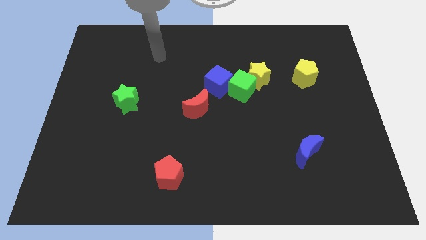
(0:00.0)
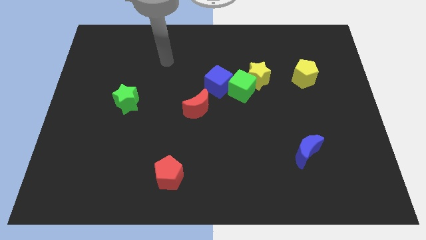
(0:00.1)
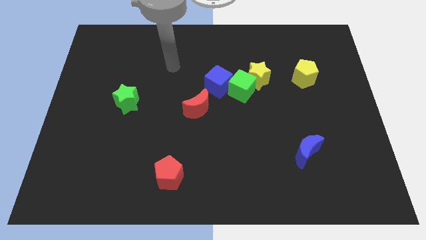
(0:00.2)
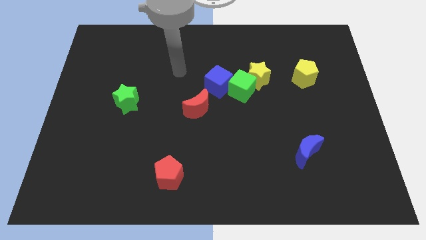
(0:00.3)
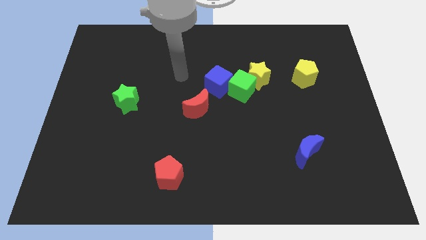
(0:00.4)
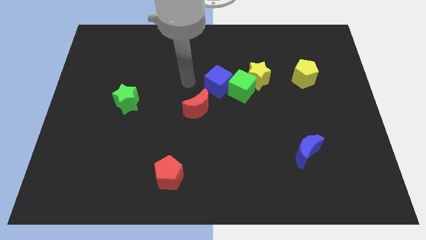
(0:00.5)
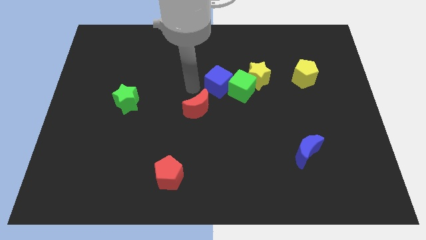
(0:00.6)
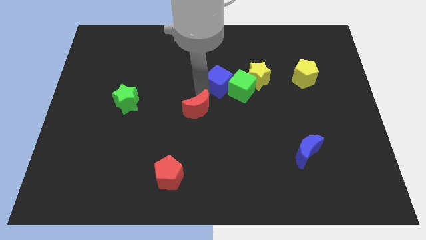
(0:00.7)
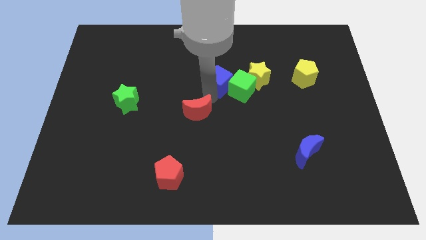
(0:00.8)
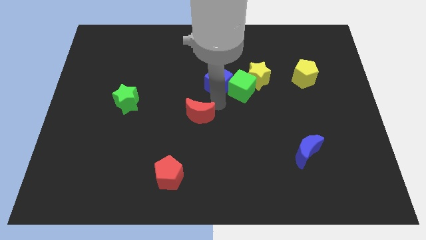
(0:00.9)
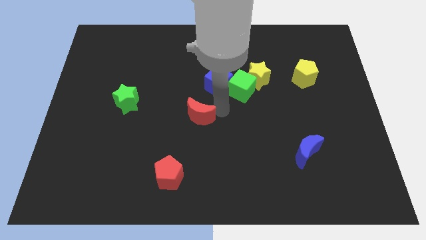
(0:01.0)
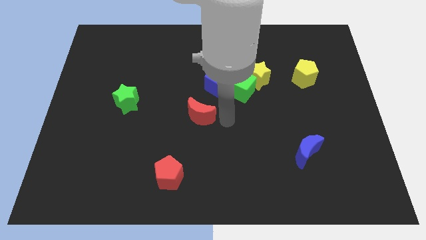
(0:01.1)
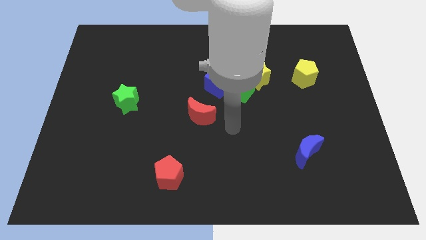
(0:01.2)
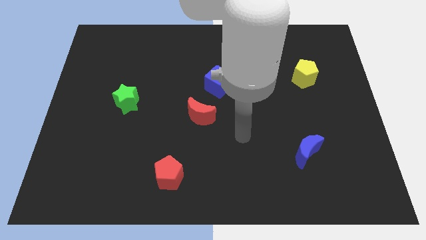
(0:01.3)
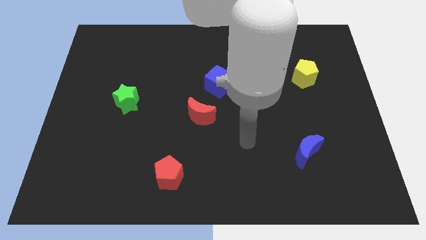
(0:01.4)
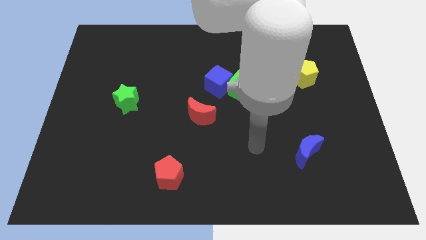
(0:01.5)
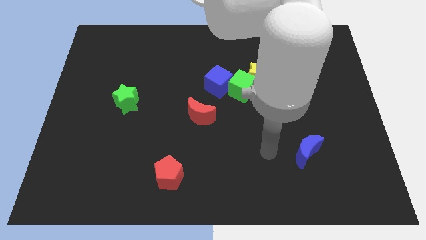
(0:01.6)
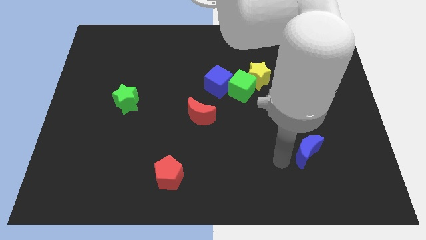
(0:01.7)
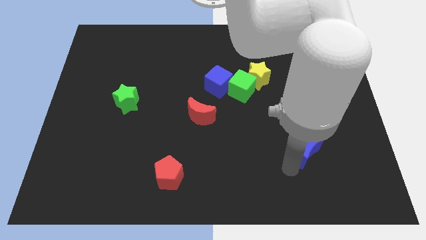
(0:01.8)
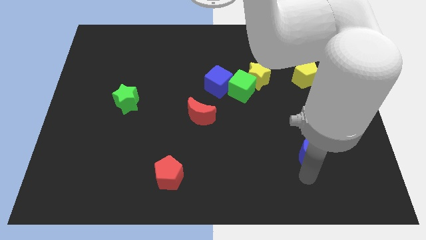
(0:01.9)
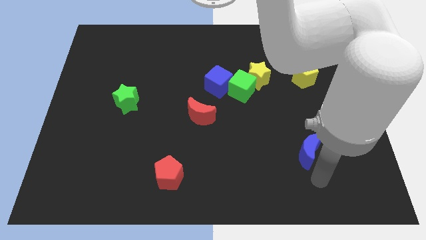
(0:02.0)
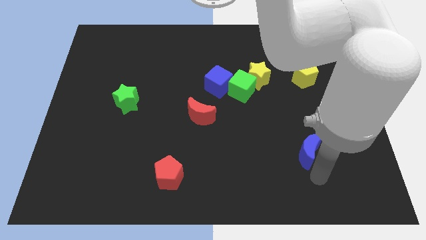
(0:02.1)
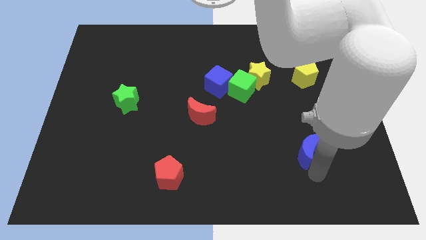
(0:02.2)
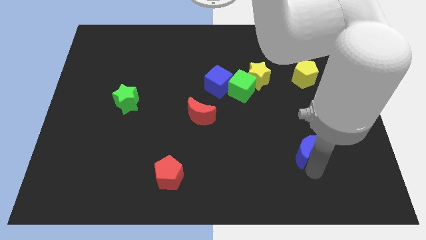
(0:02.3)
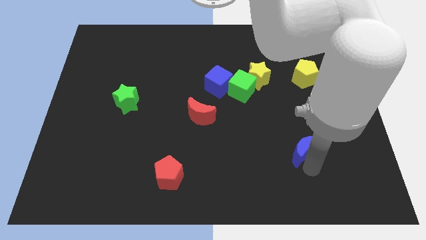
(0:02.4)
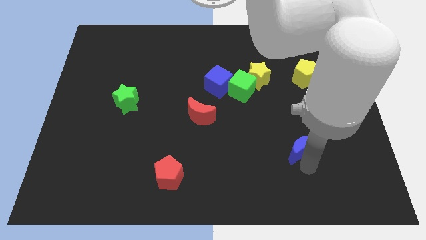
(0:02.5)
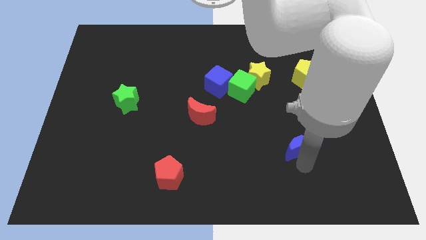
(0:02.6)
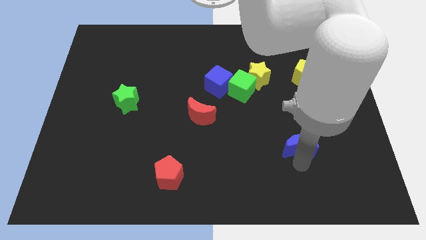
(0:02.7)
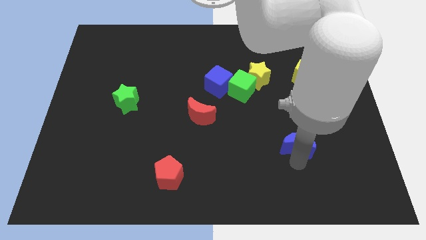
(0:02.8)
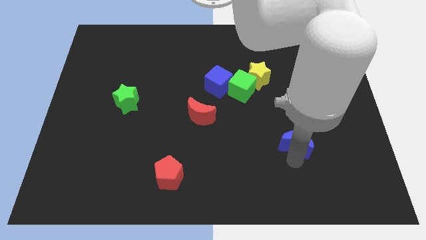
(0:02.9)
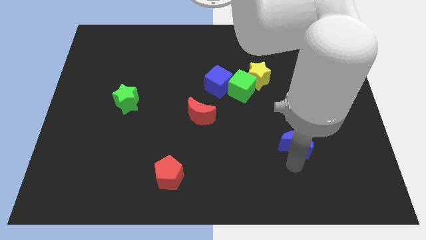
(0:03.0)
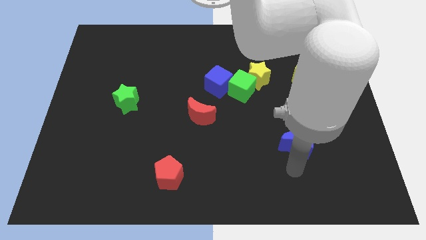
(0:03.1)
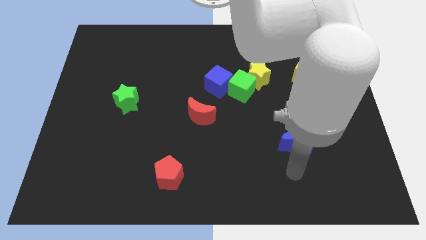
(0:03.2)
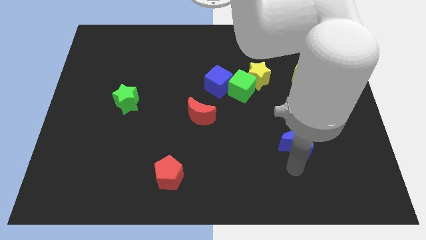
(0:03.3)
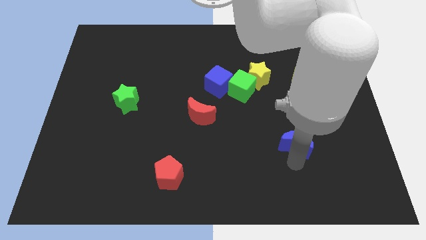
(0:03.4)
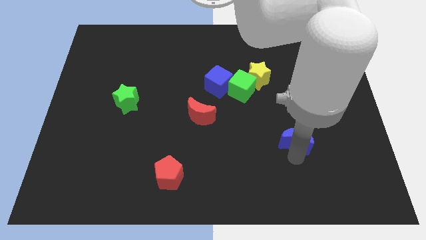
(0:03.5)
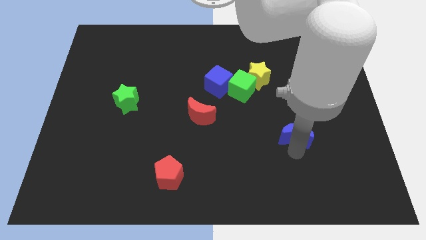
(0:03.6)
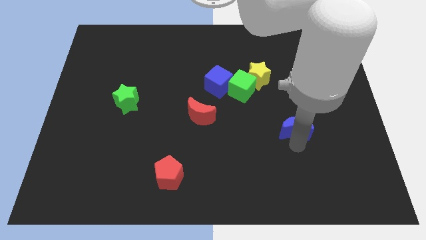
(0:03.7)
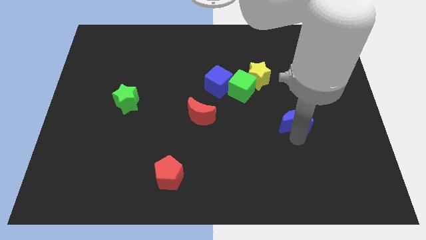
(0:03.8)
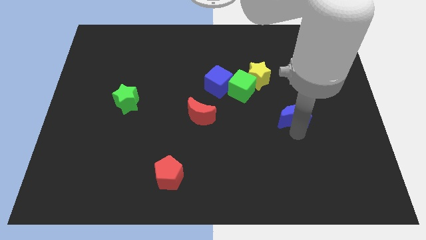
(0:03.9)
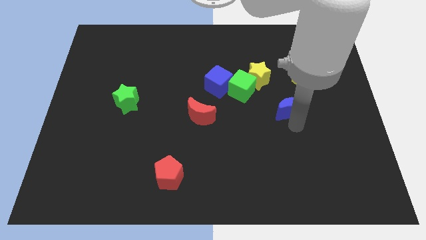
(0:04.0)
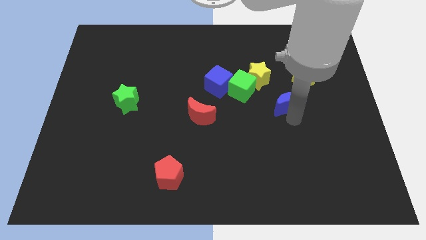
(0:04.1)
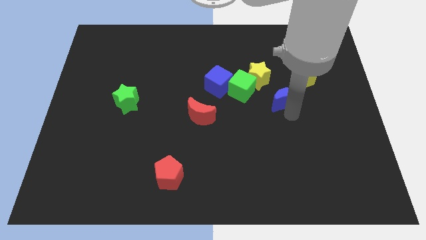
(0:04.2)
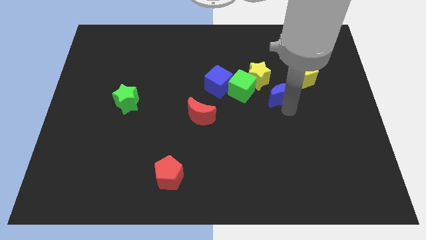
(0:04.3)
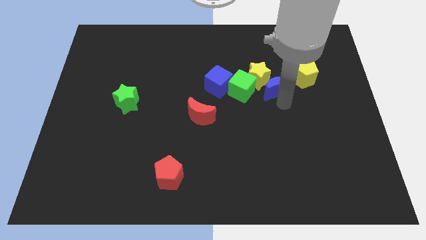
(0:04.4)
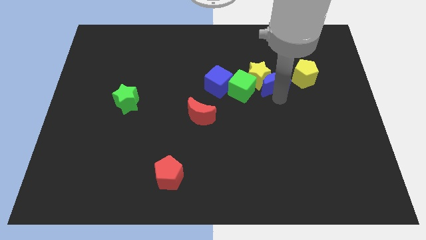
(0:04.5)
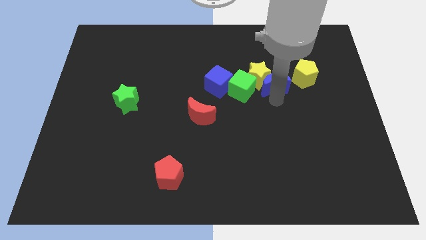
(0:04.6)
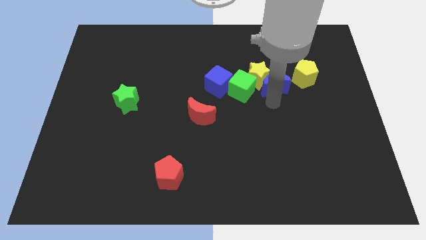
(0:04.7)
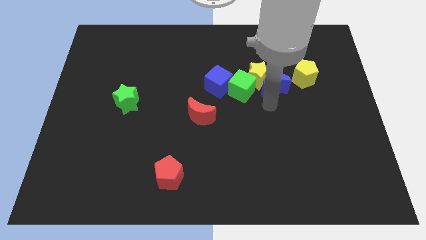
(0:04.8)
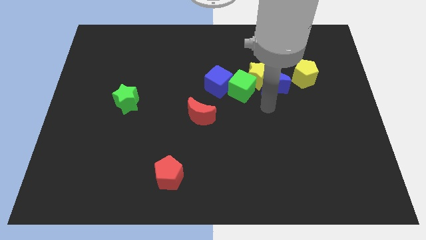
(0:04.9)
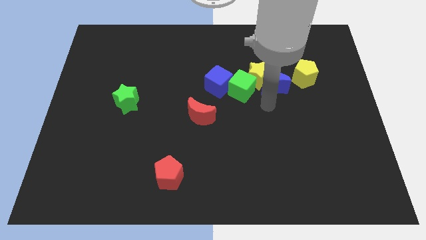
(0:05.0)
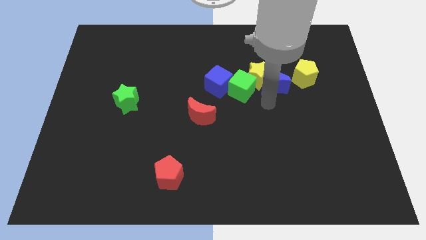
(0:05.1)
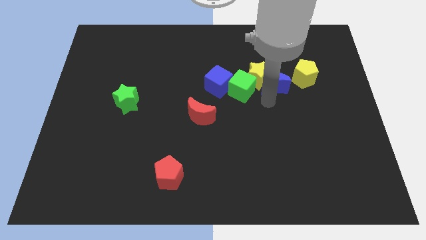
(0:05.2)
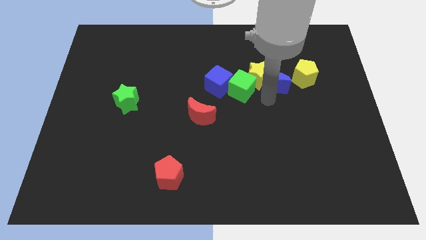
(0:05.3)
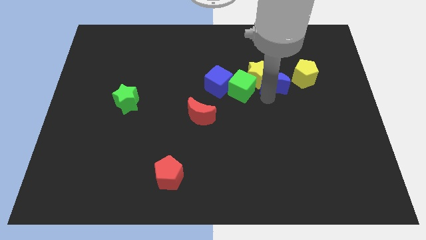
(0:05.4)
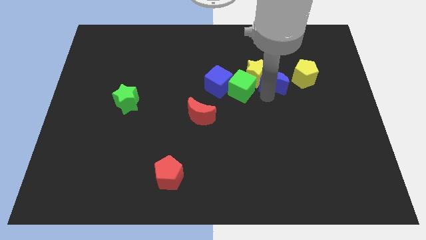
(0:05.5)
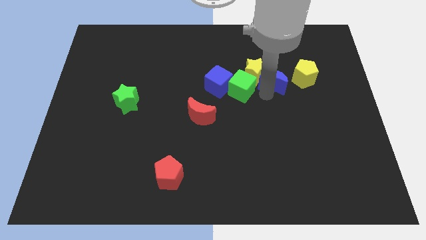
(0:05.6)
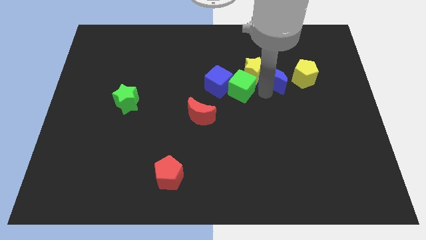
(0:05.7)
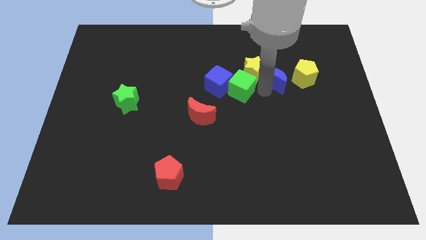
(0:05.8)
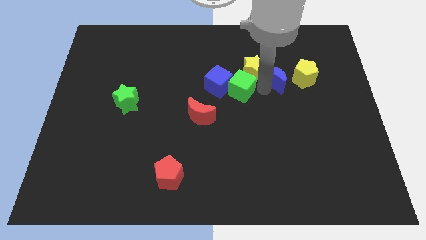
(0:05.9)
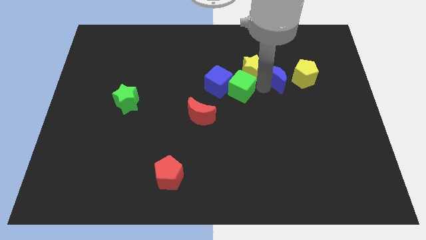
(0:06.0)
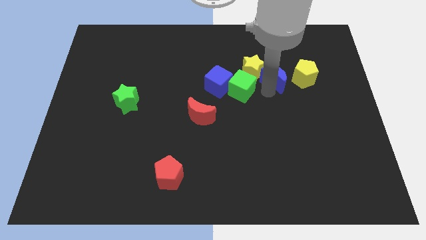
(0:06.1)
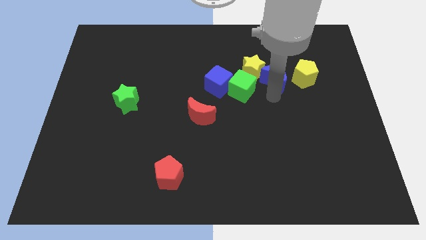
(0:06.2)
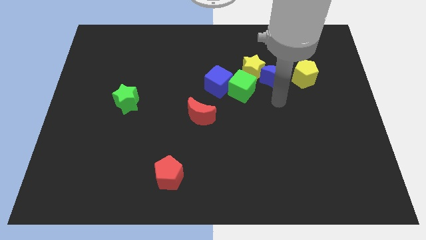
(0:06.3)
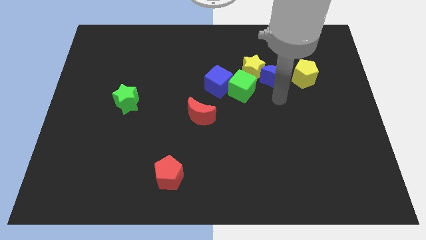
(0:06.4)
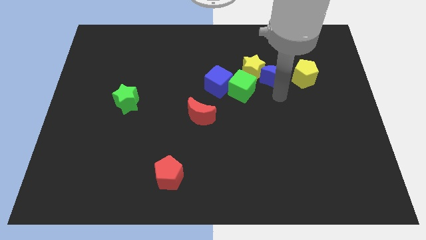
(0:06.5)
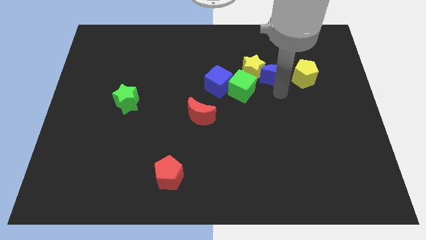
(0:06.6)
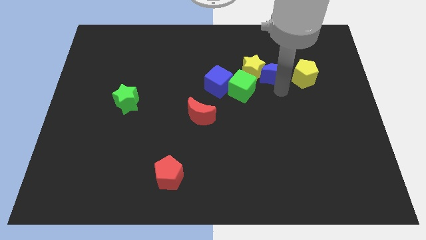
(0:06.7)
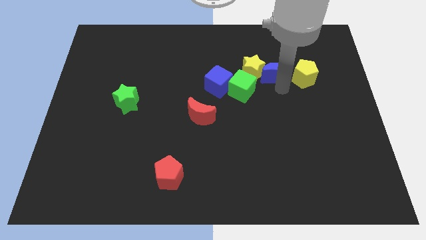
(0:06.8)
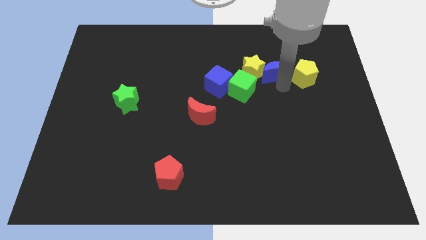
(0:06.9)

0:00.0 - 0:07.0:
push the blue moon to the top right side of the yellow star
